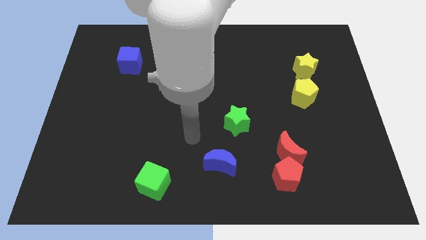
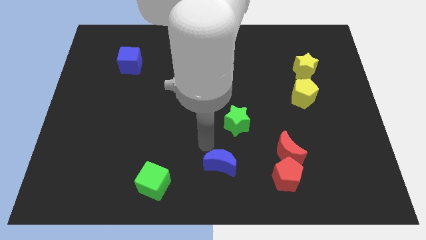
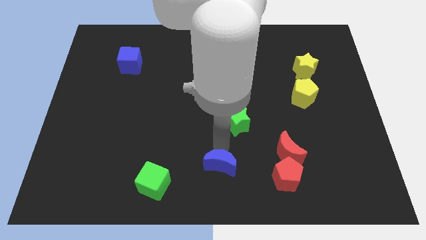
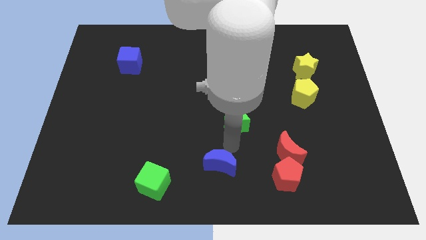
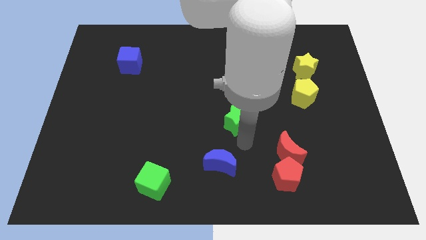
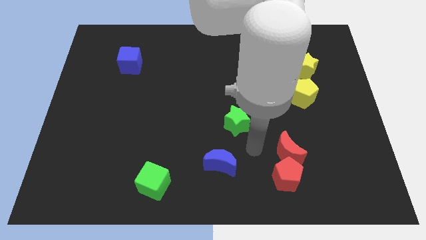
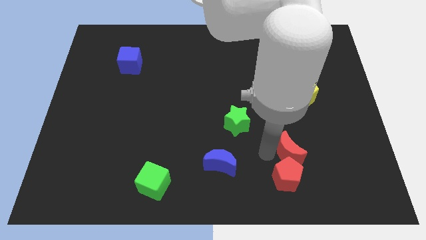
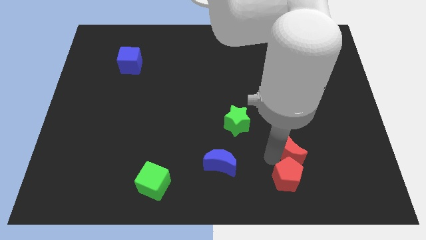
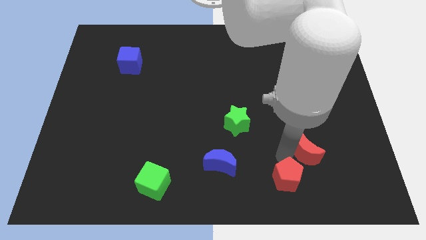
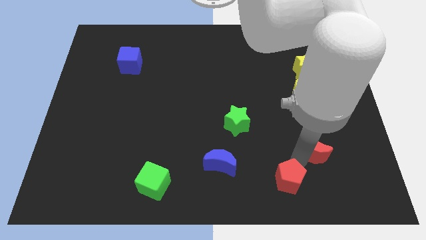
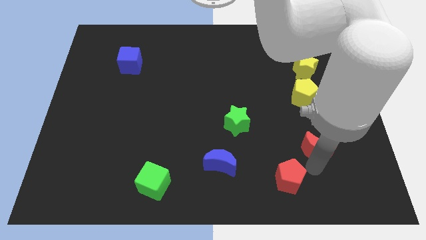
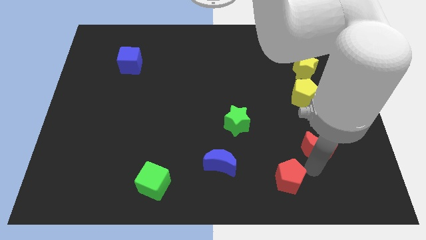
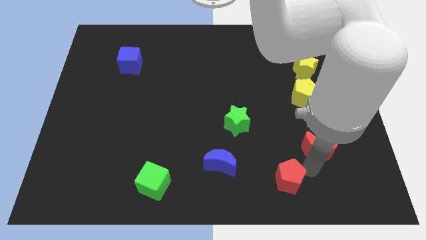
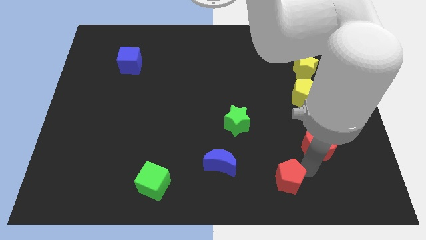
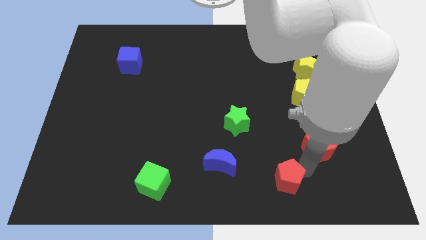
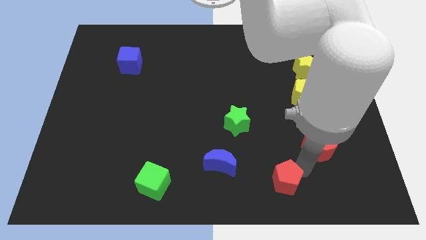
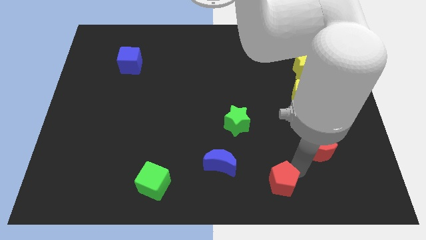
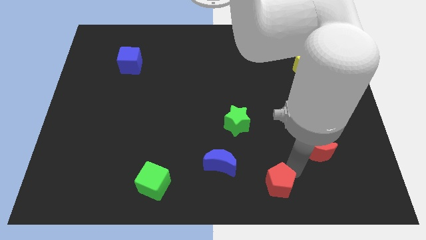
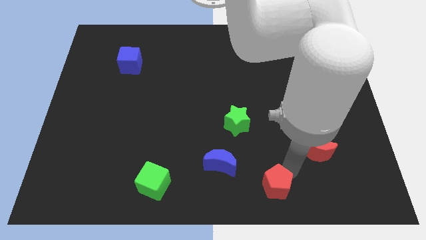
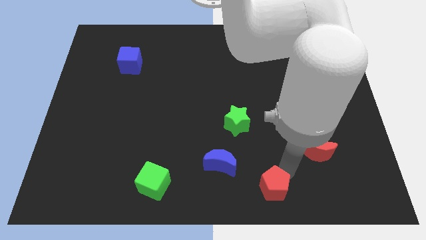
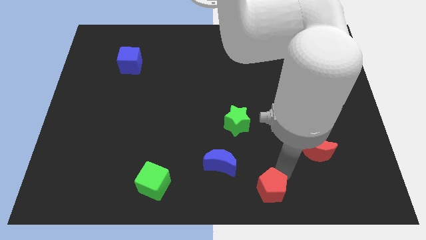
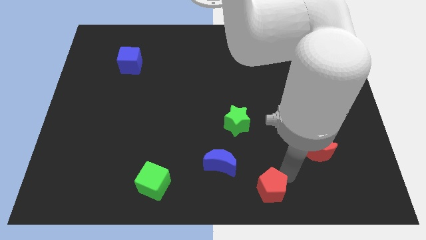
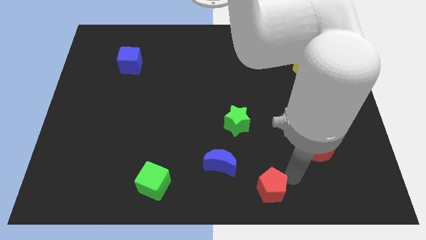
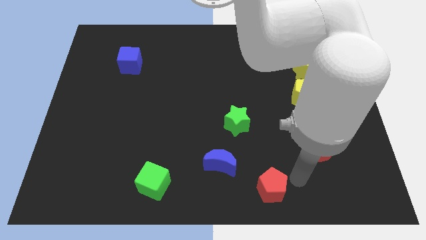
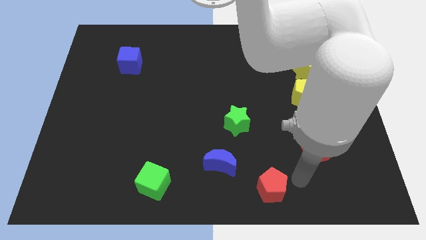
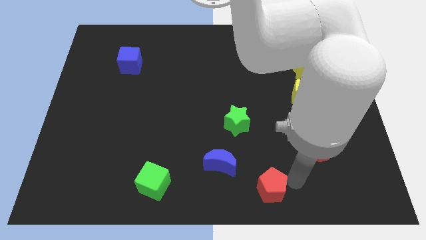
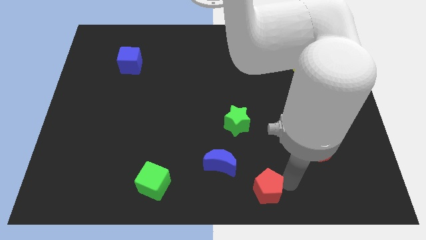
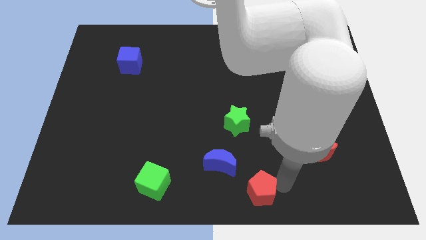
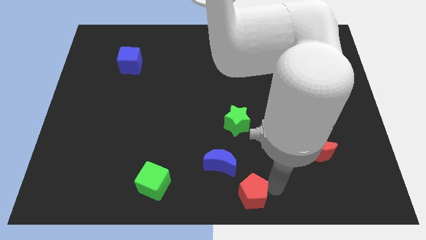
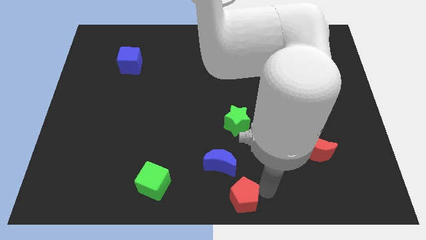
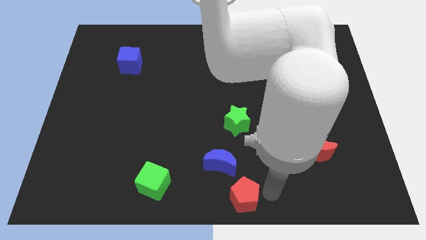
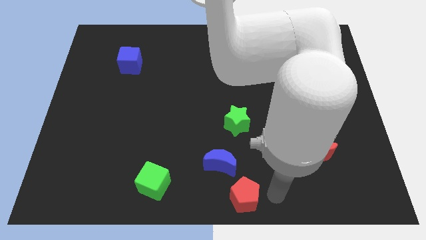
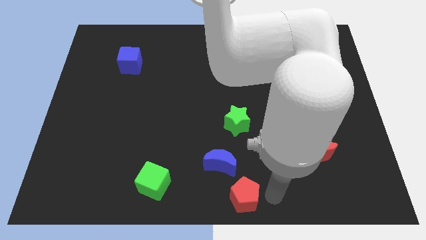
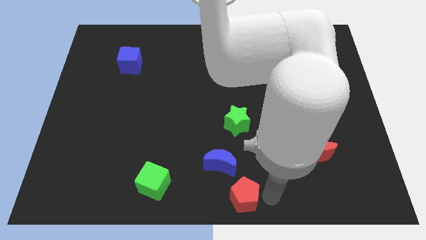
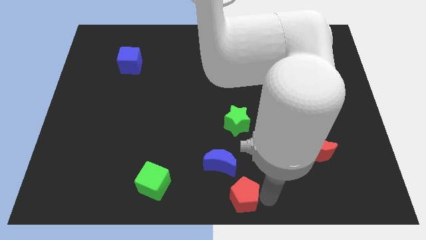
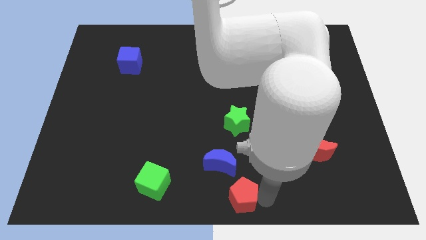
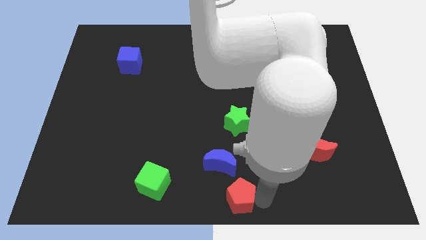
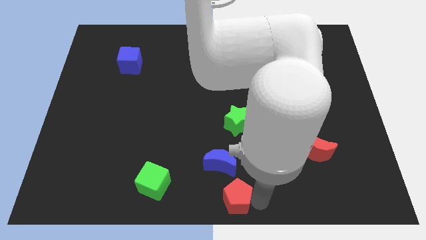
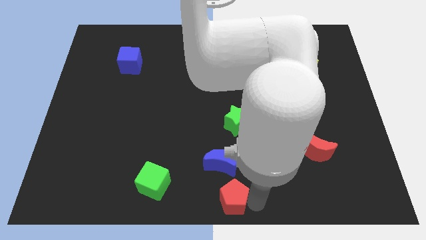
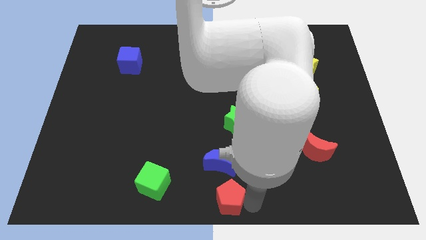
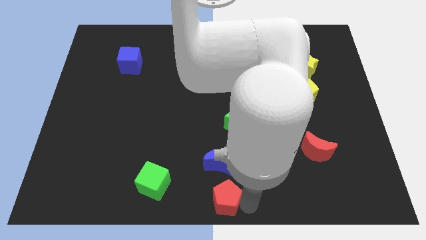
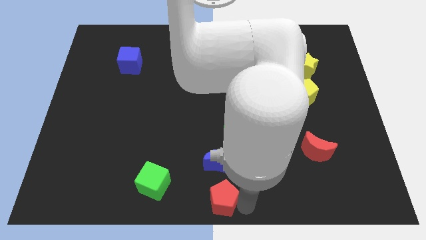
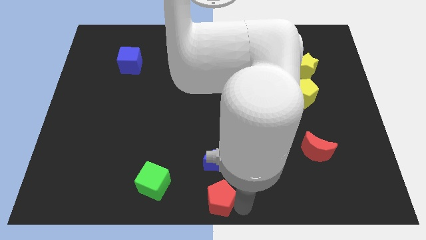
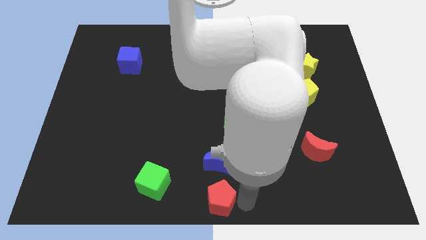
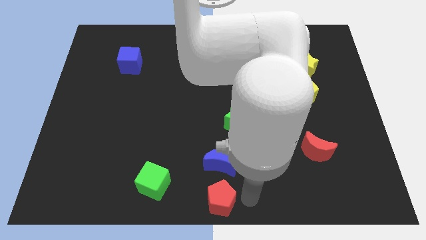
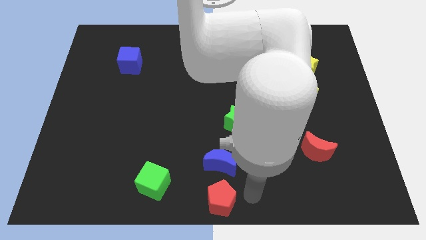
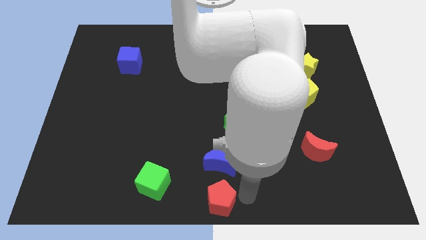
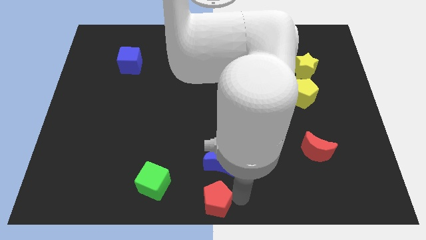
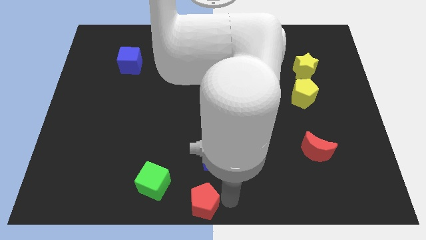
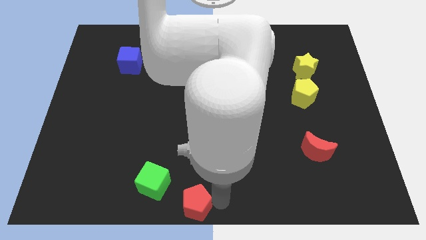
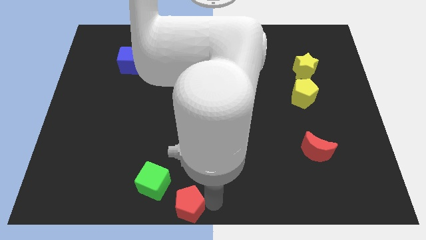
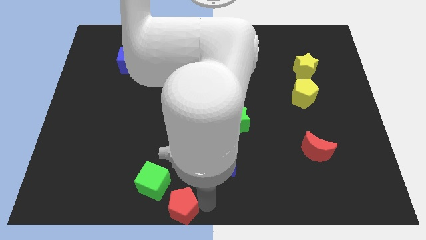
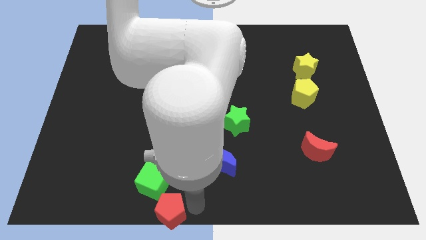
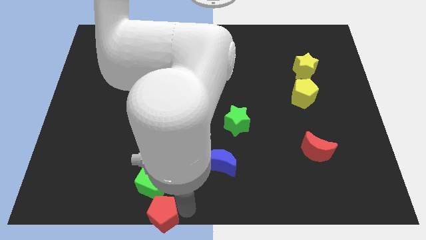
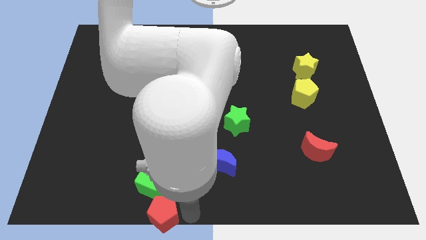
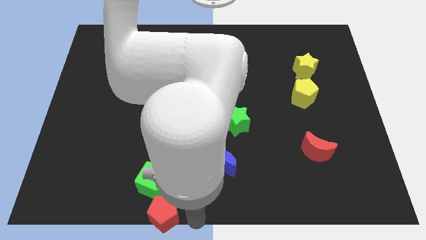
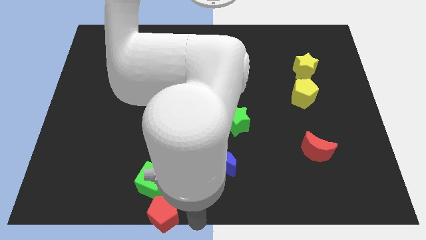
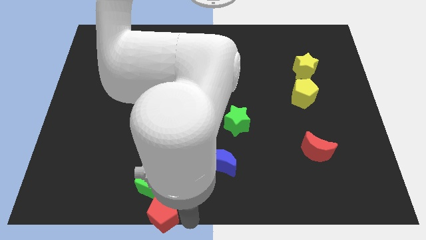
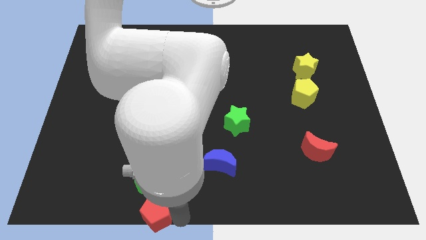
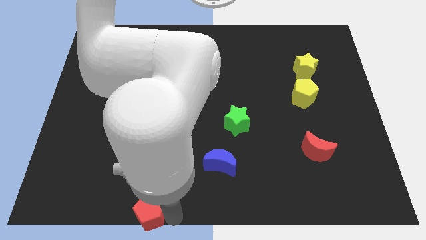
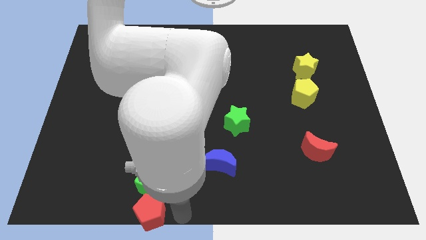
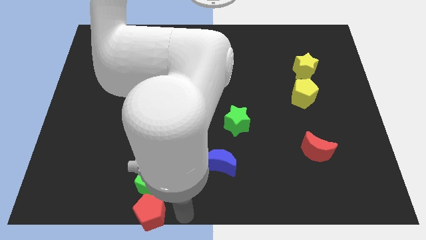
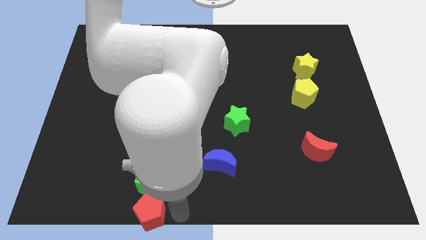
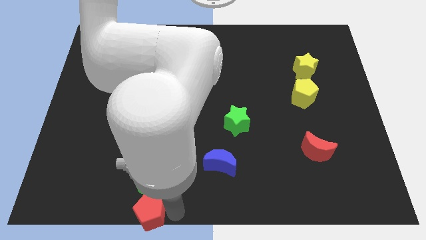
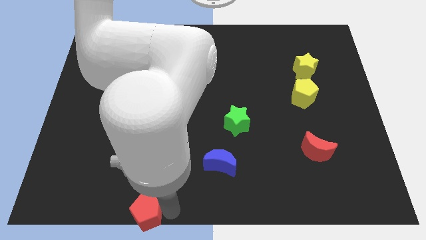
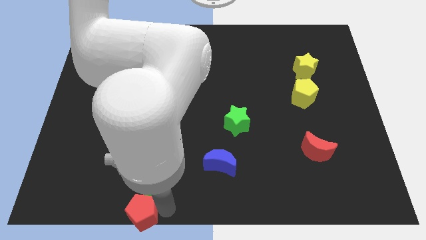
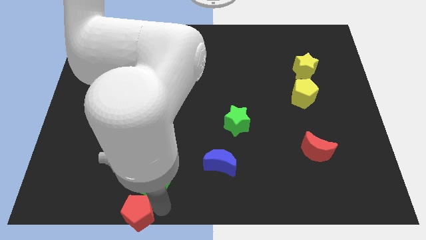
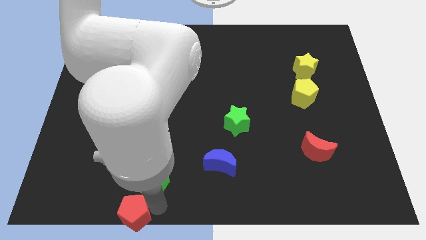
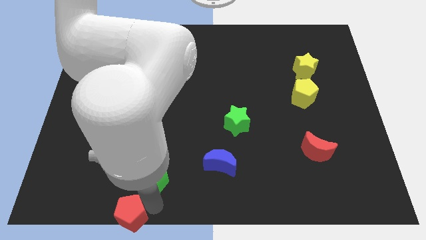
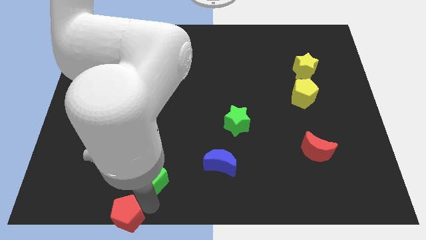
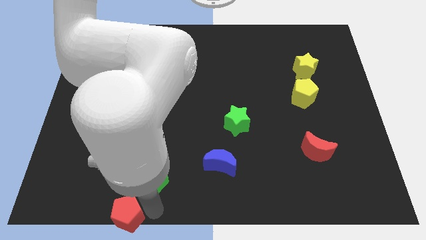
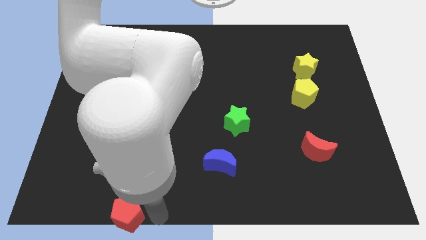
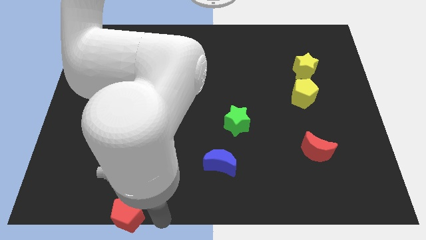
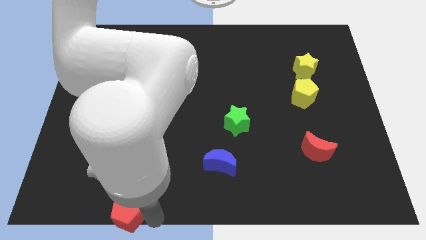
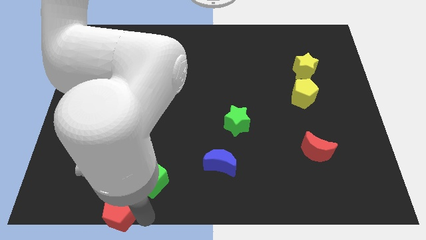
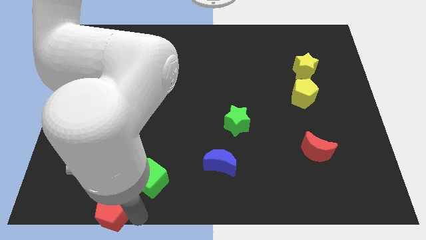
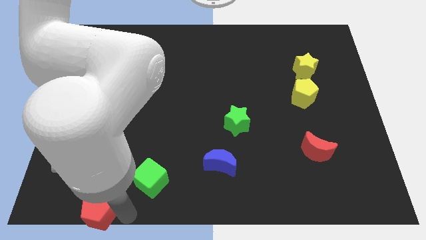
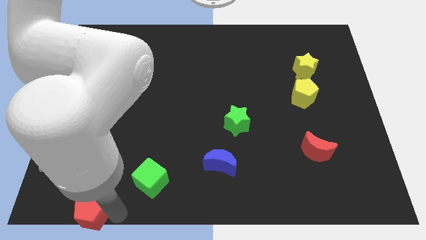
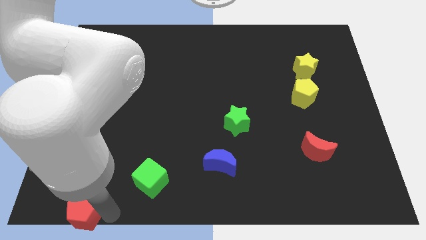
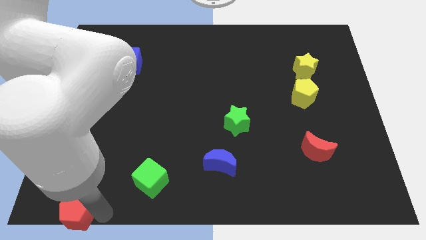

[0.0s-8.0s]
push the red pentagon to the bottom left corner
